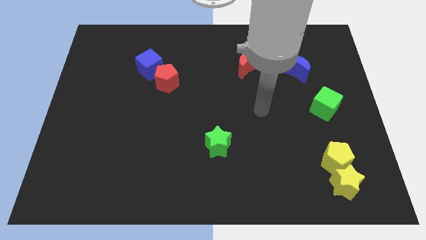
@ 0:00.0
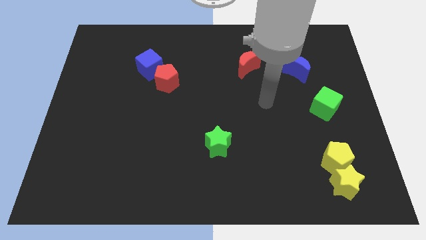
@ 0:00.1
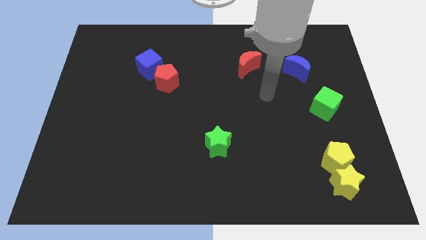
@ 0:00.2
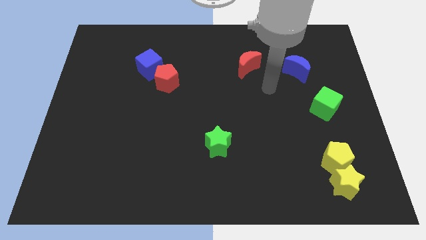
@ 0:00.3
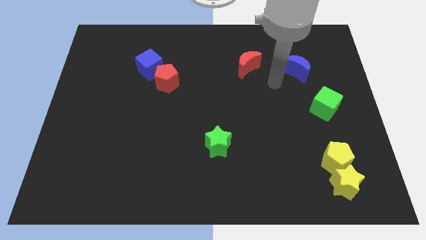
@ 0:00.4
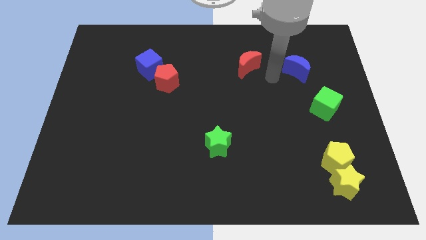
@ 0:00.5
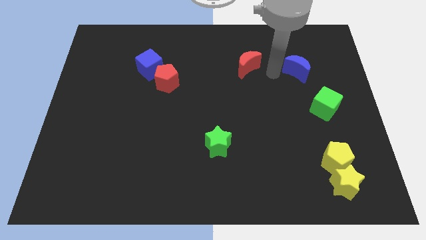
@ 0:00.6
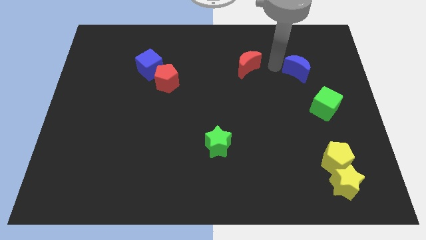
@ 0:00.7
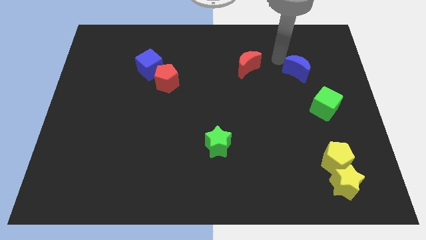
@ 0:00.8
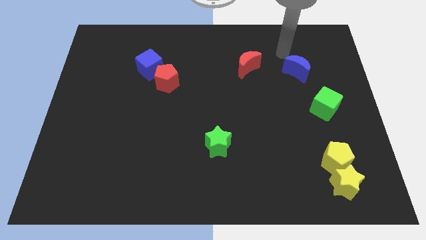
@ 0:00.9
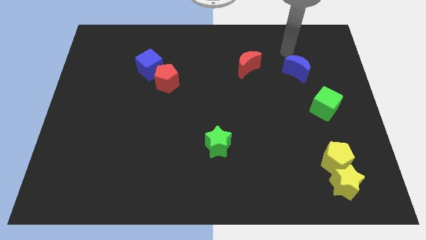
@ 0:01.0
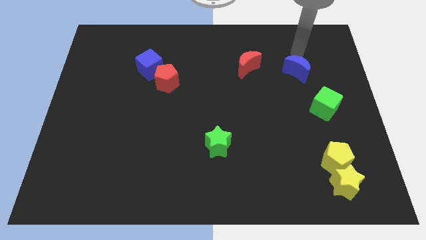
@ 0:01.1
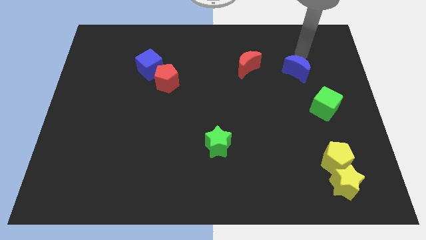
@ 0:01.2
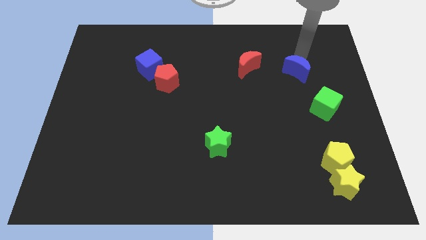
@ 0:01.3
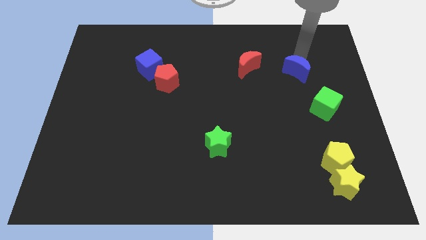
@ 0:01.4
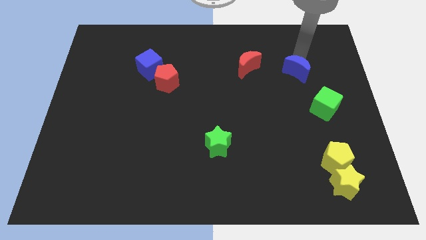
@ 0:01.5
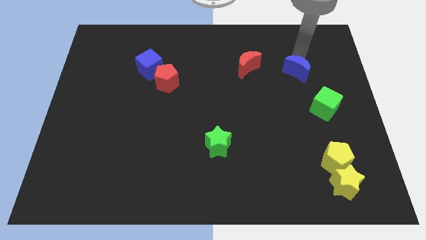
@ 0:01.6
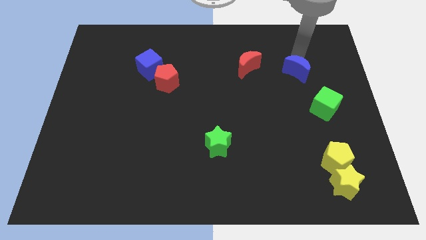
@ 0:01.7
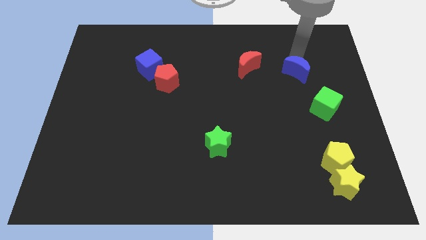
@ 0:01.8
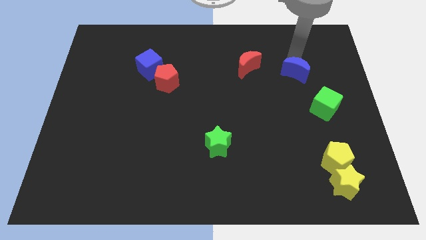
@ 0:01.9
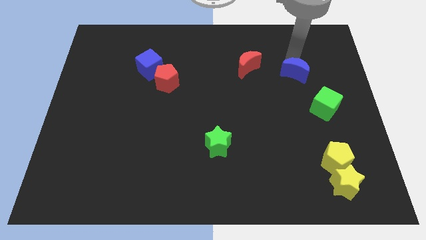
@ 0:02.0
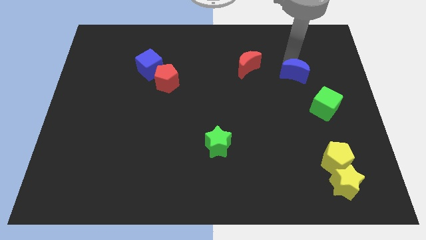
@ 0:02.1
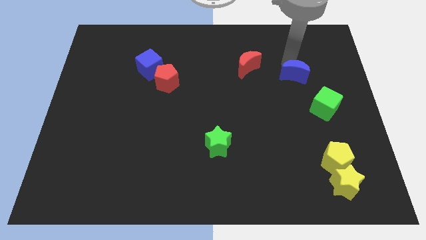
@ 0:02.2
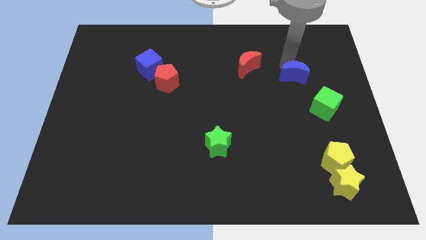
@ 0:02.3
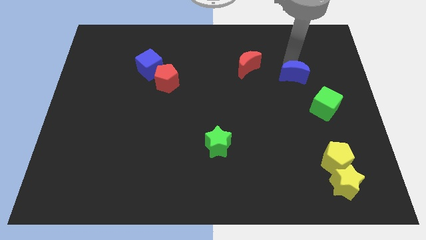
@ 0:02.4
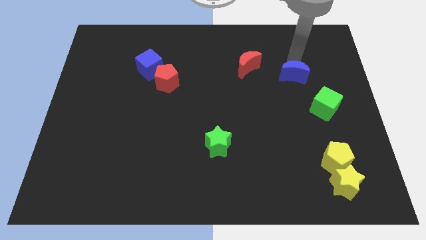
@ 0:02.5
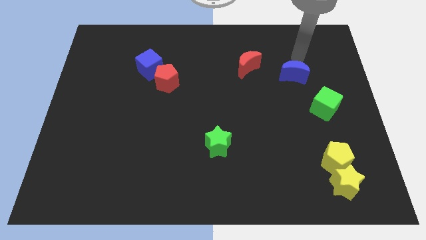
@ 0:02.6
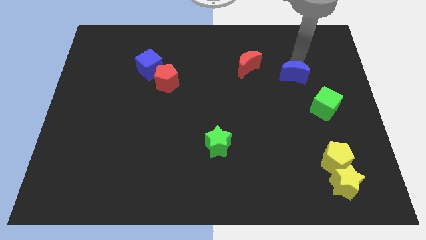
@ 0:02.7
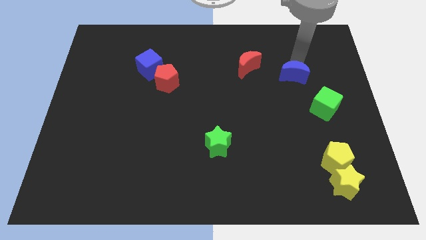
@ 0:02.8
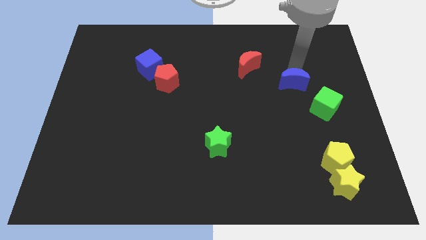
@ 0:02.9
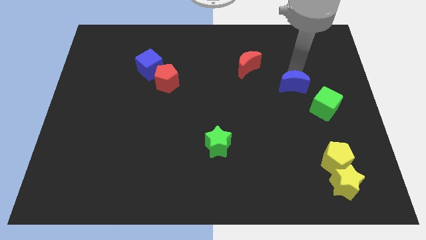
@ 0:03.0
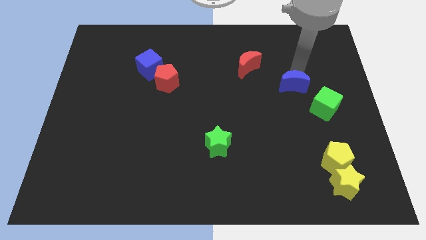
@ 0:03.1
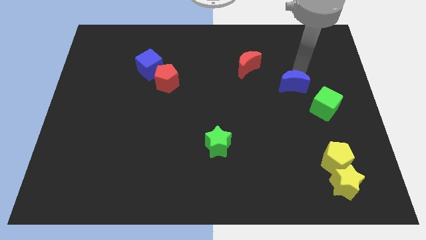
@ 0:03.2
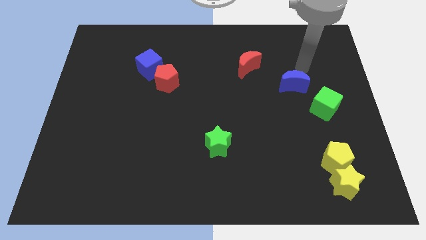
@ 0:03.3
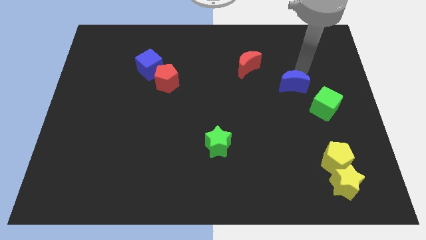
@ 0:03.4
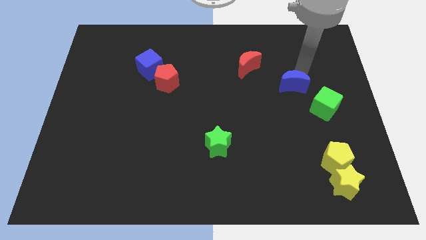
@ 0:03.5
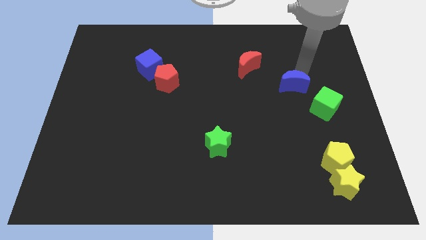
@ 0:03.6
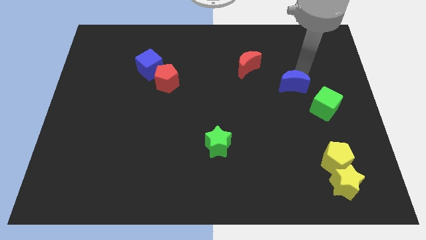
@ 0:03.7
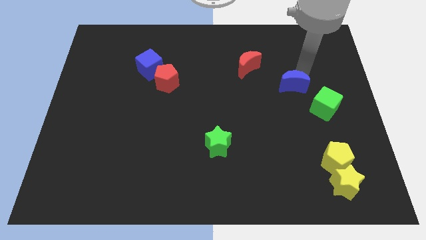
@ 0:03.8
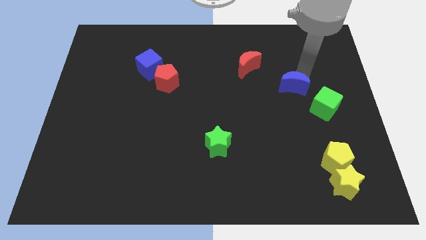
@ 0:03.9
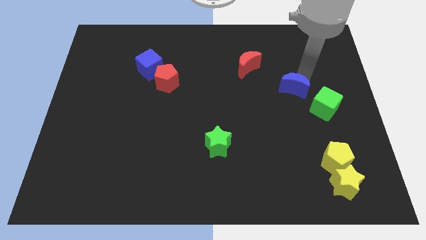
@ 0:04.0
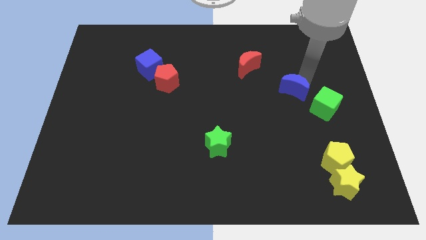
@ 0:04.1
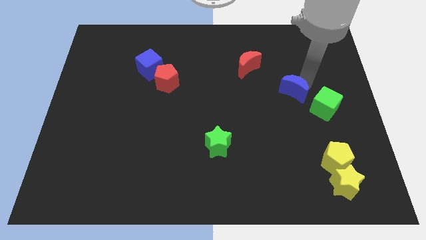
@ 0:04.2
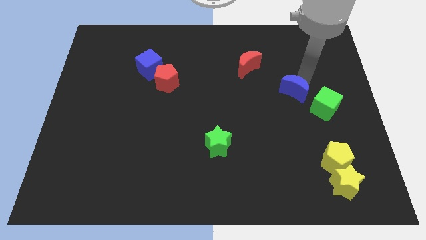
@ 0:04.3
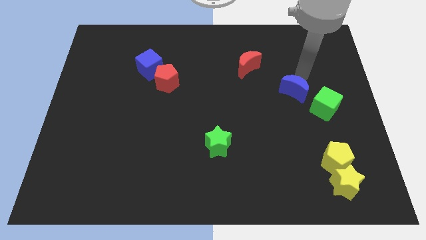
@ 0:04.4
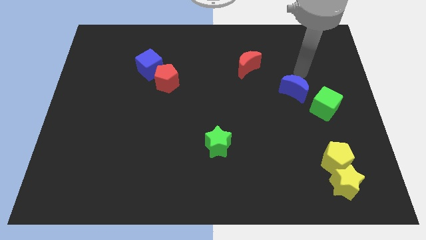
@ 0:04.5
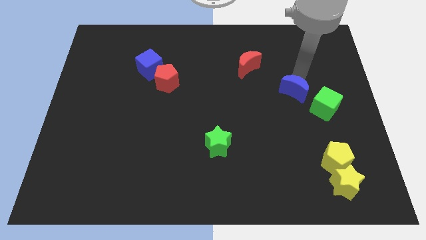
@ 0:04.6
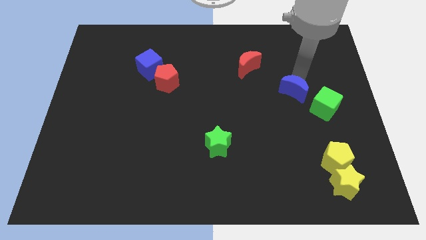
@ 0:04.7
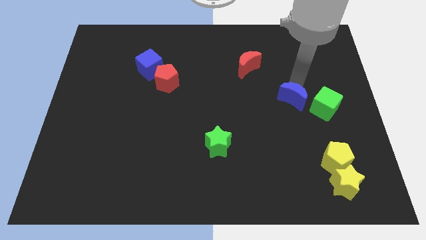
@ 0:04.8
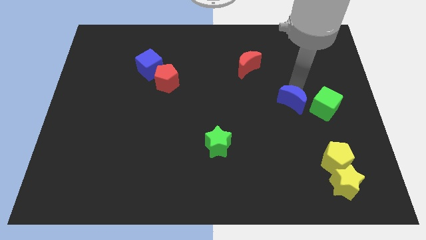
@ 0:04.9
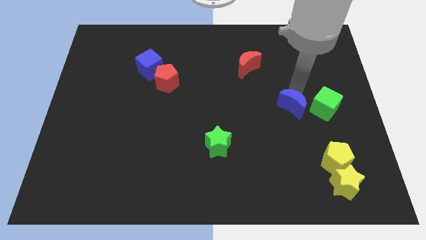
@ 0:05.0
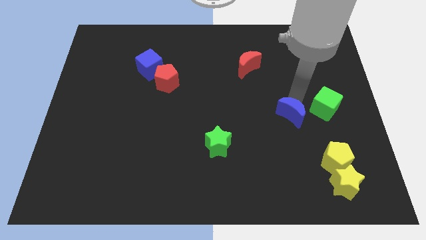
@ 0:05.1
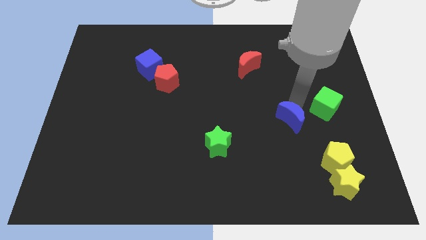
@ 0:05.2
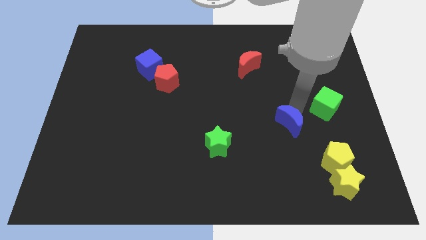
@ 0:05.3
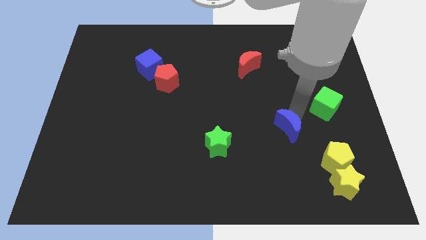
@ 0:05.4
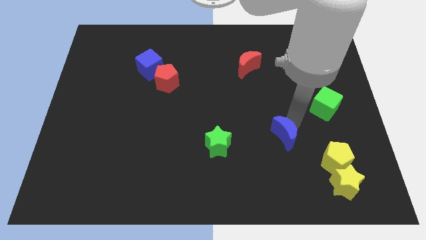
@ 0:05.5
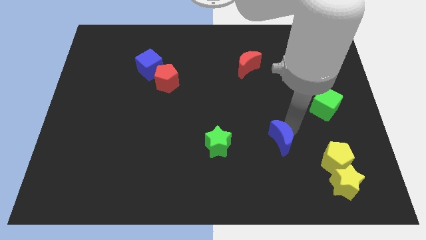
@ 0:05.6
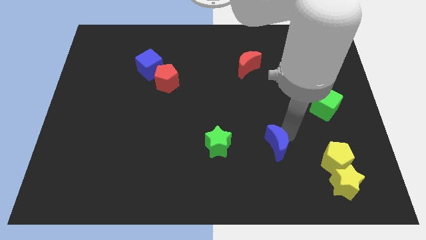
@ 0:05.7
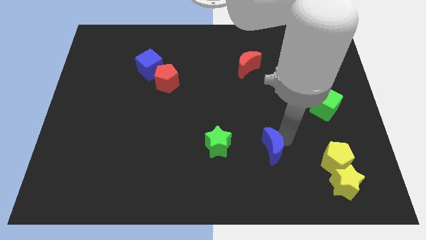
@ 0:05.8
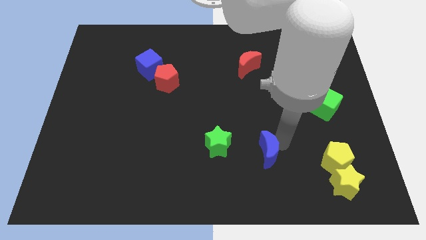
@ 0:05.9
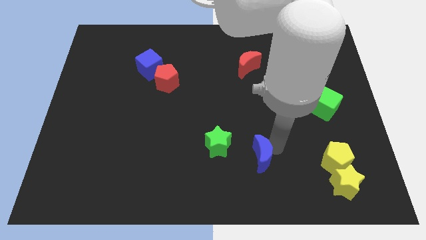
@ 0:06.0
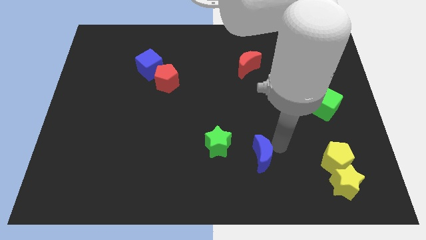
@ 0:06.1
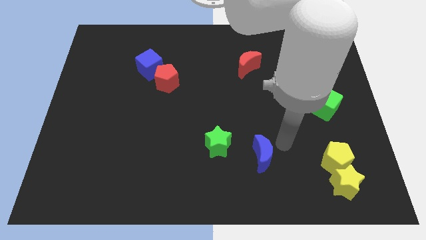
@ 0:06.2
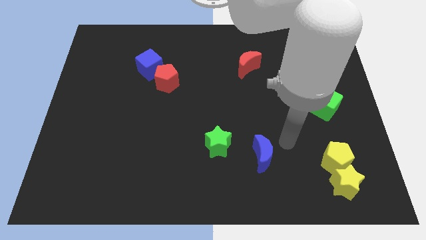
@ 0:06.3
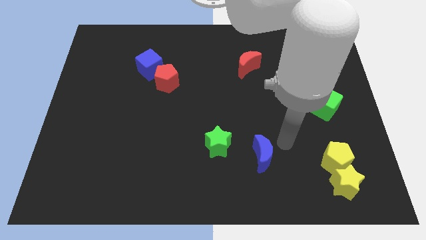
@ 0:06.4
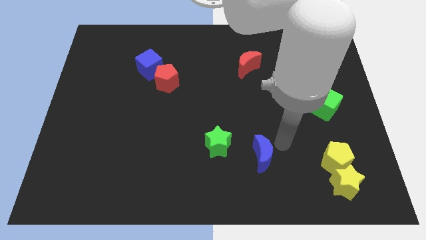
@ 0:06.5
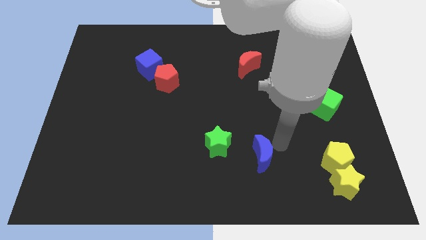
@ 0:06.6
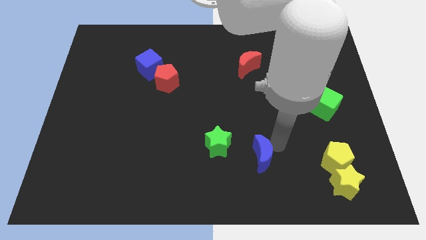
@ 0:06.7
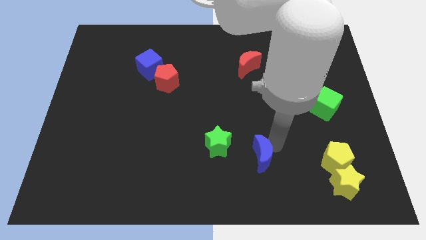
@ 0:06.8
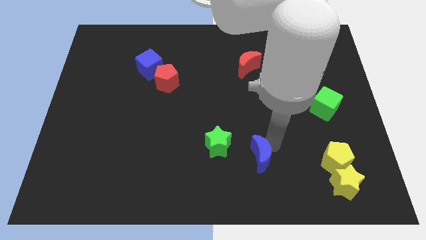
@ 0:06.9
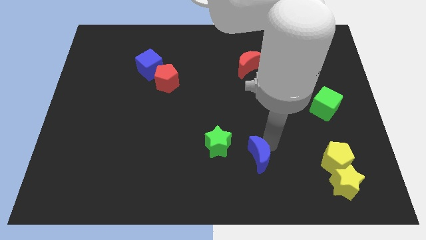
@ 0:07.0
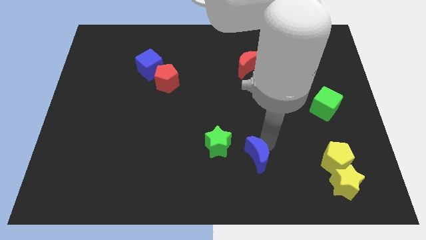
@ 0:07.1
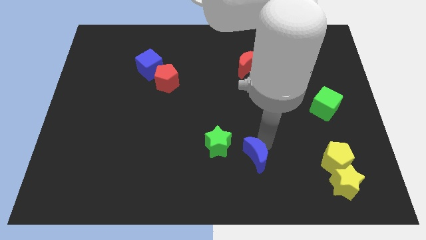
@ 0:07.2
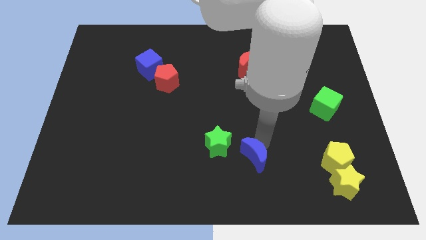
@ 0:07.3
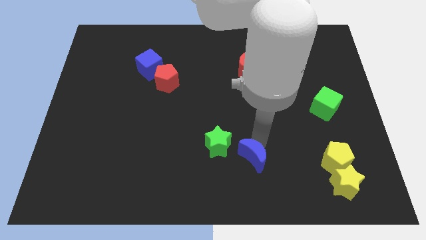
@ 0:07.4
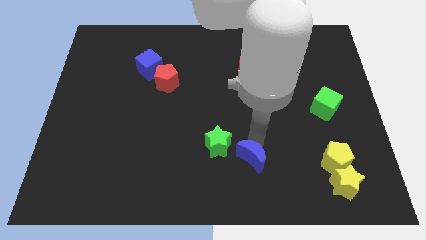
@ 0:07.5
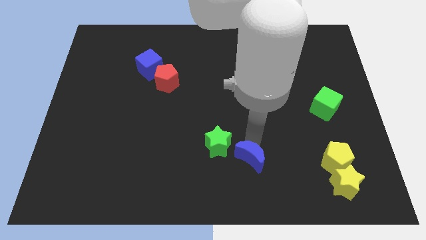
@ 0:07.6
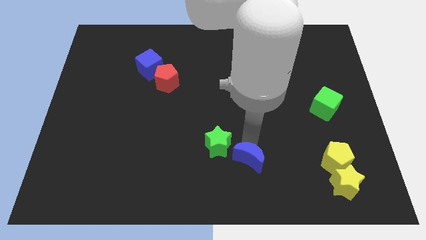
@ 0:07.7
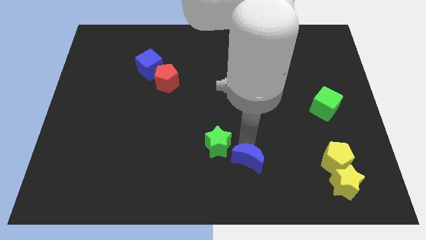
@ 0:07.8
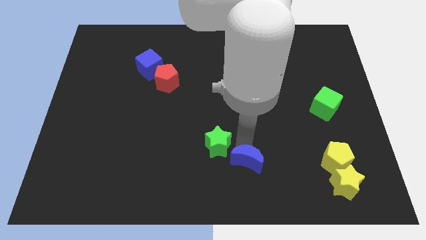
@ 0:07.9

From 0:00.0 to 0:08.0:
slide the blue moon to the bottom side
